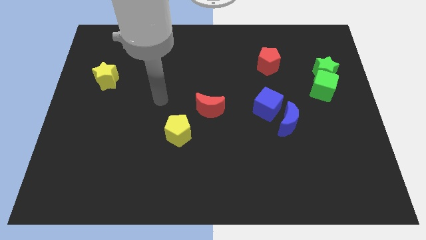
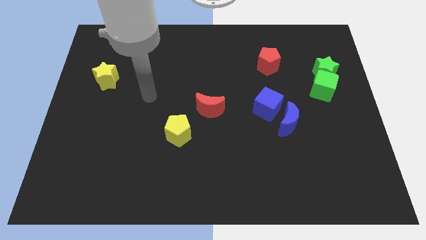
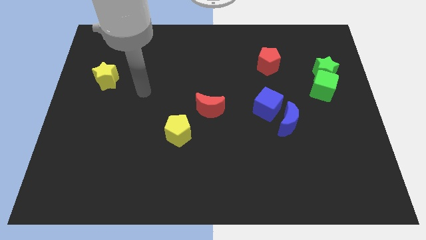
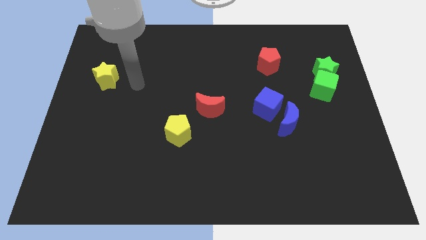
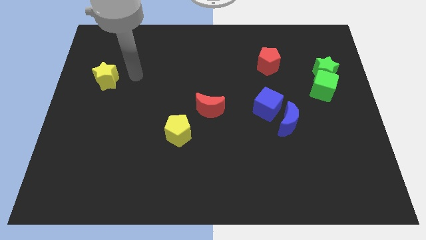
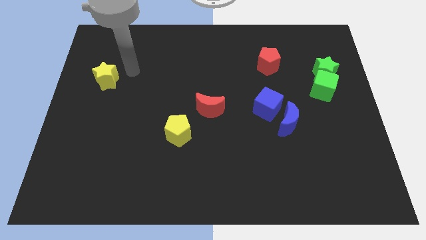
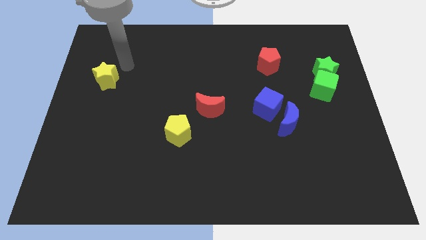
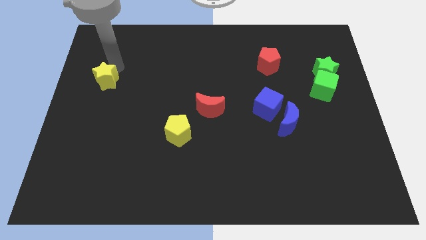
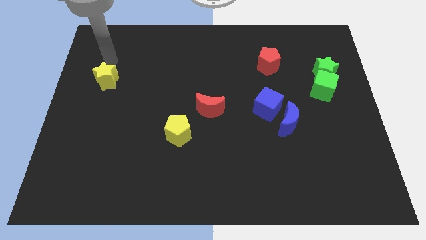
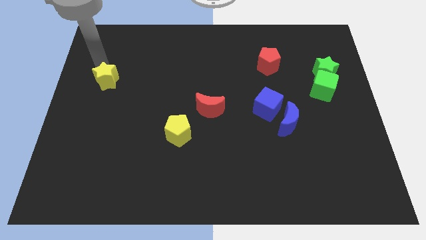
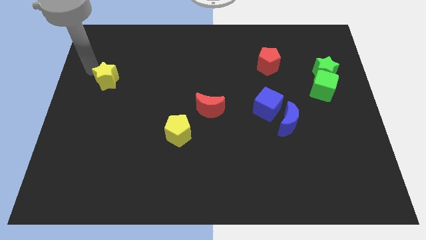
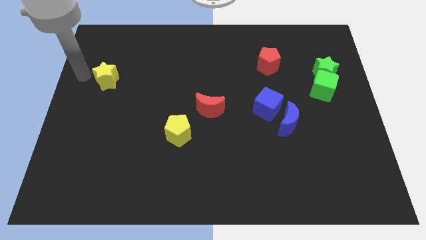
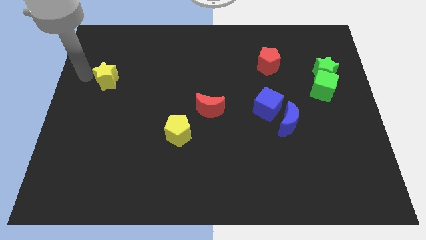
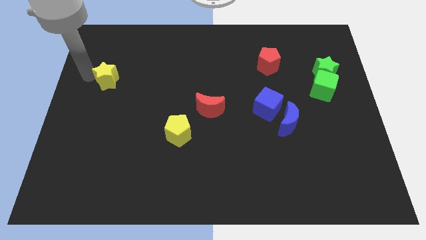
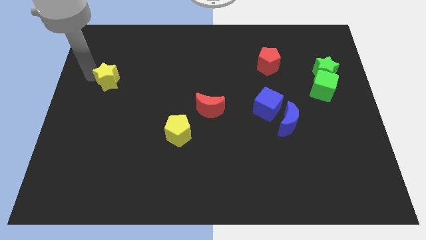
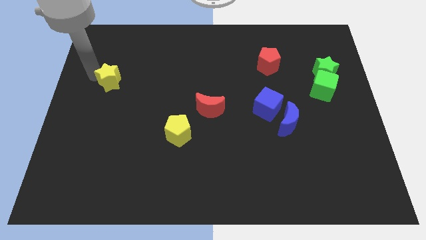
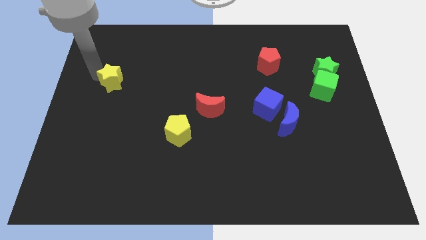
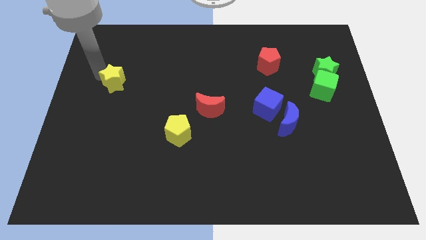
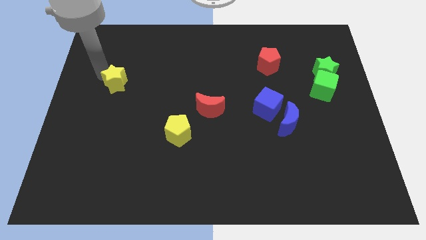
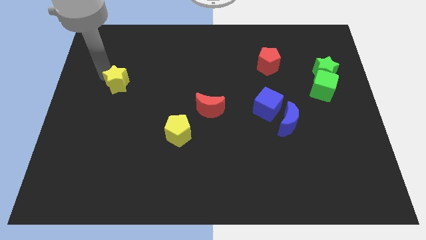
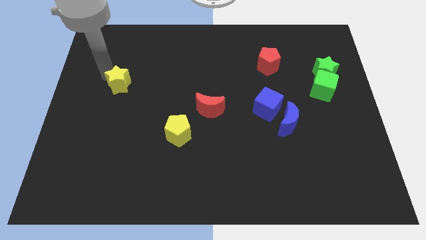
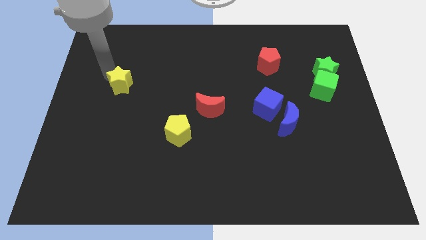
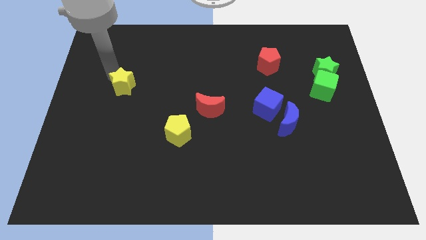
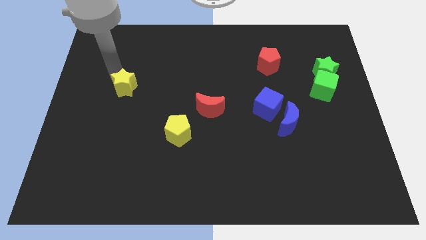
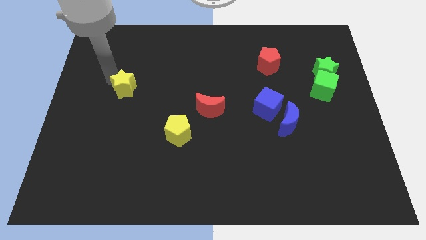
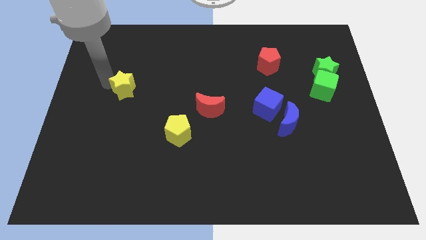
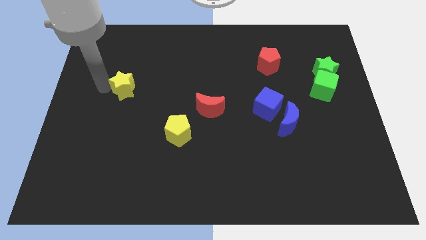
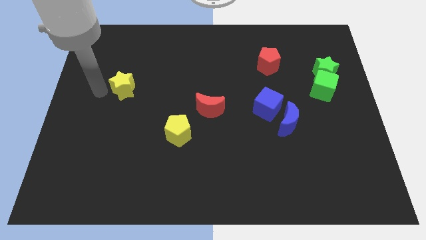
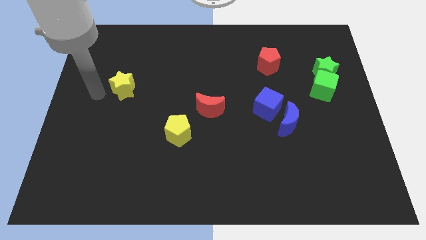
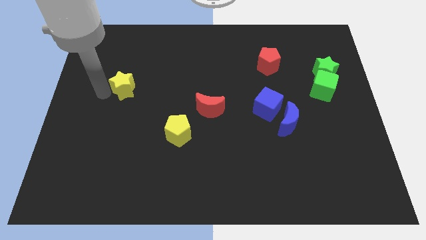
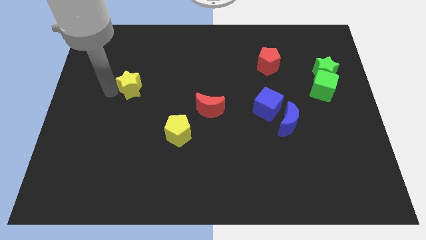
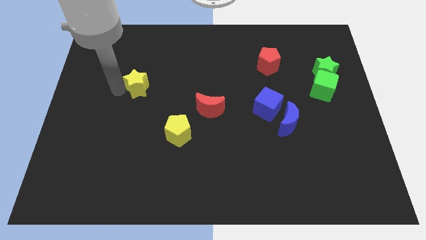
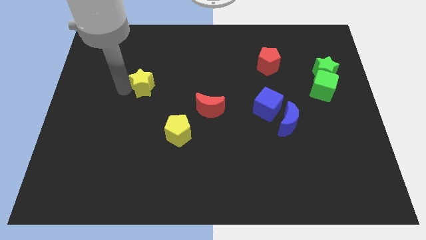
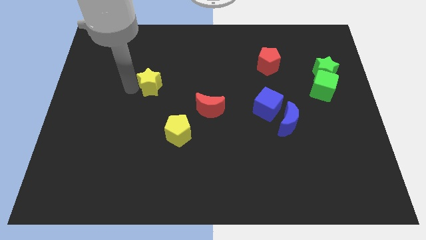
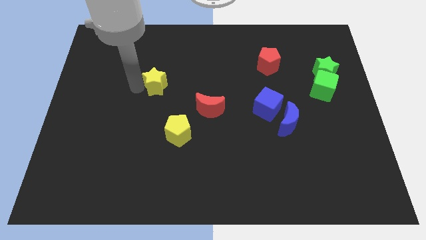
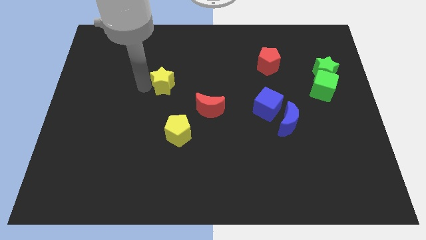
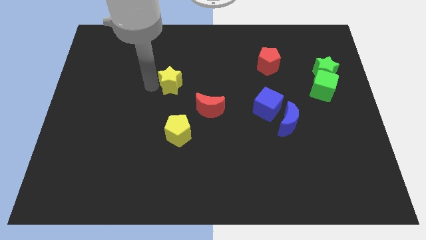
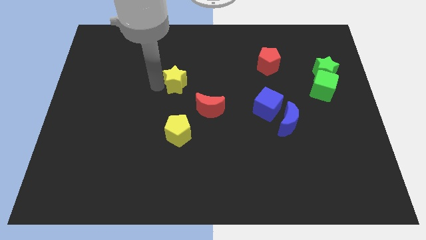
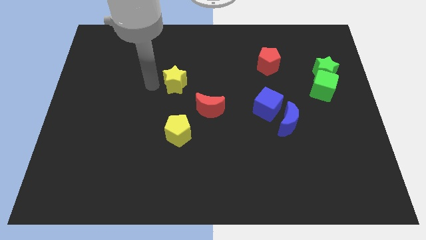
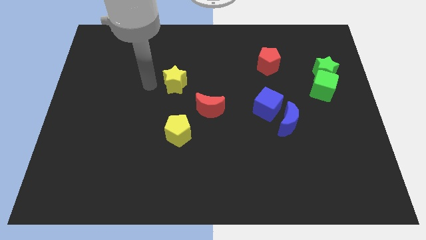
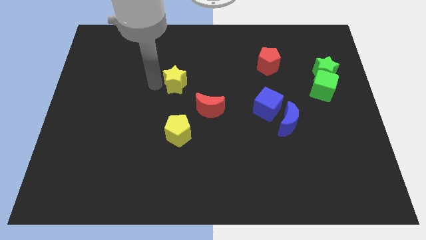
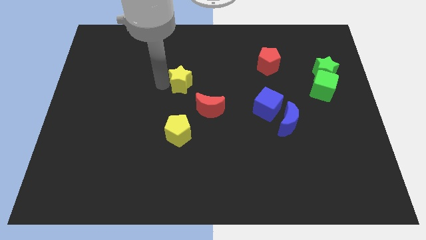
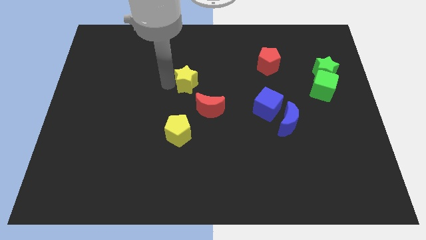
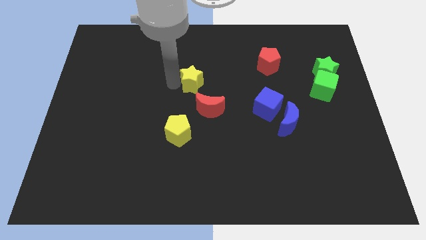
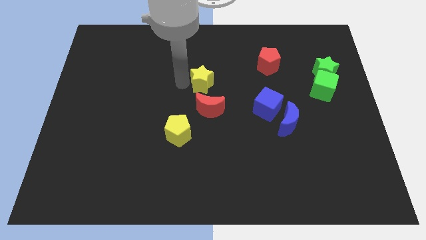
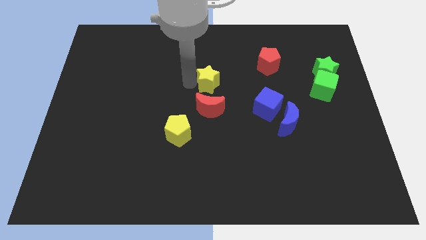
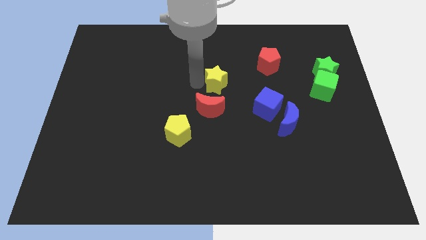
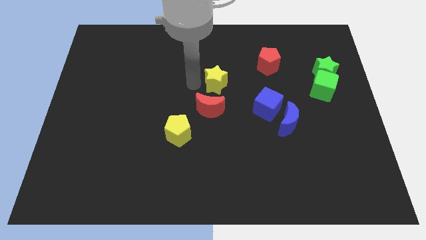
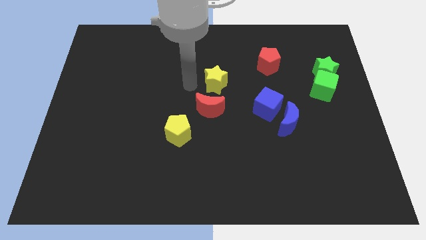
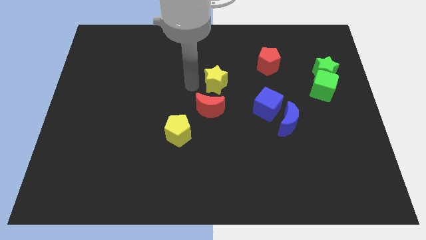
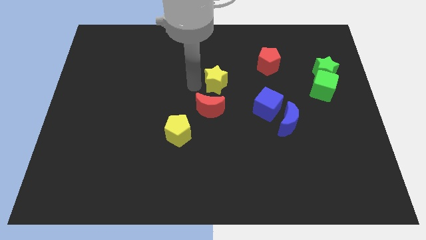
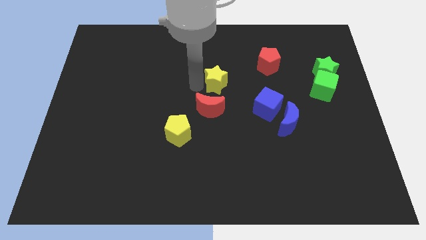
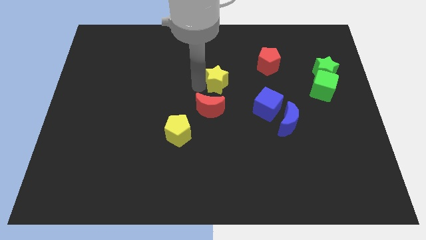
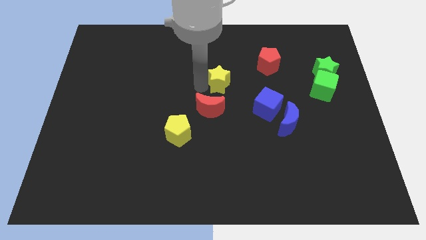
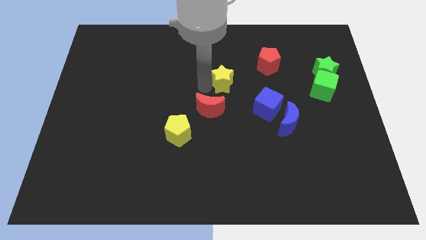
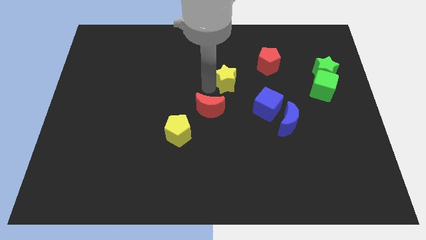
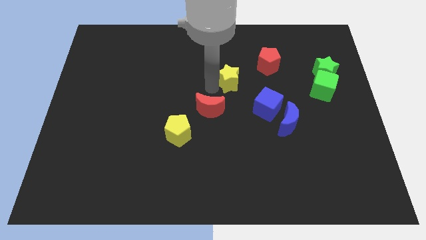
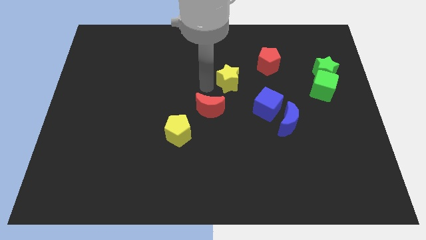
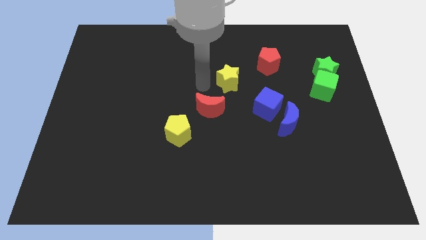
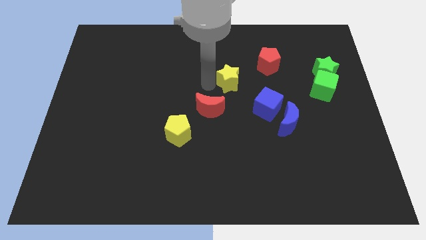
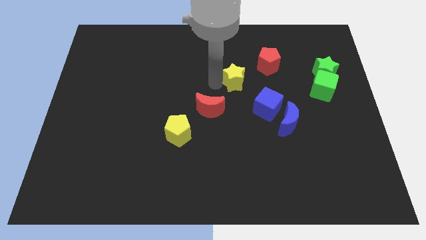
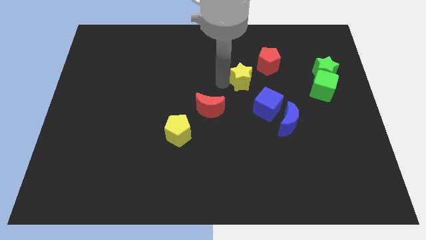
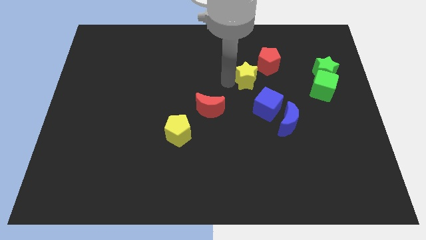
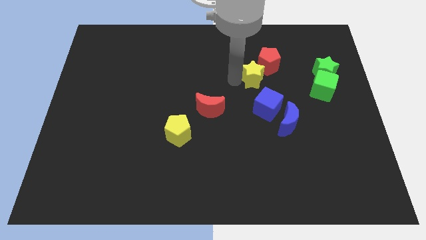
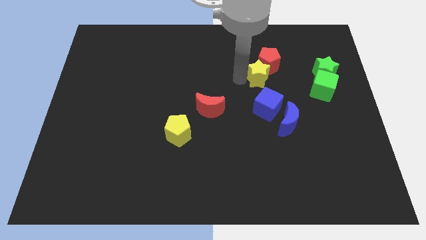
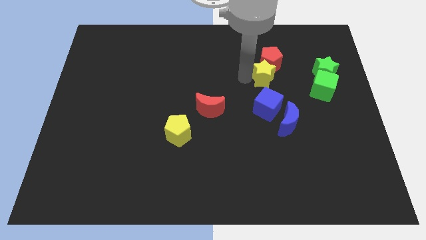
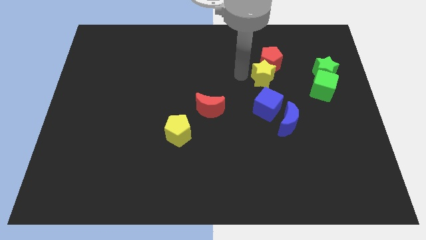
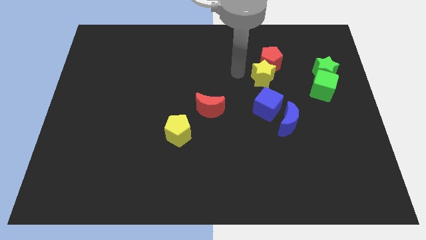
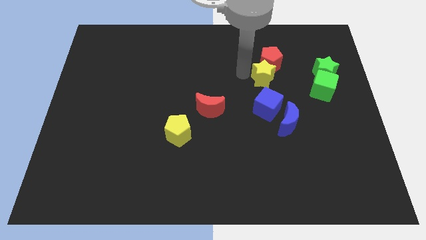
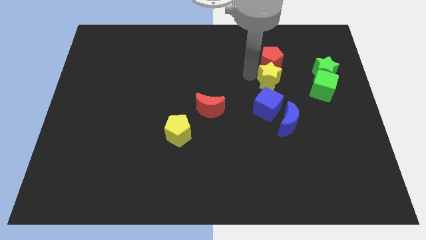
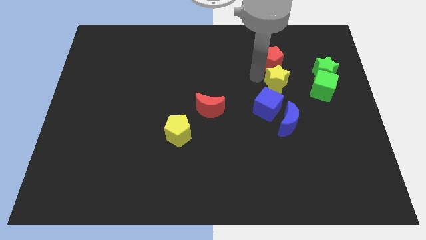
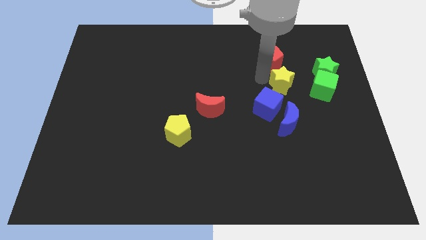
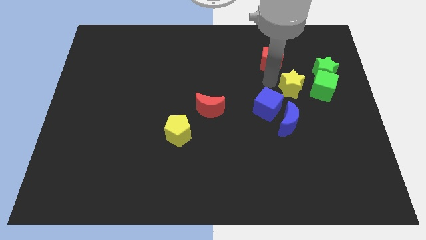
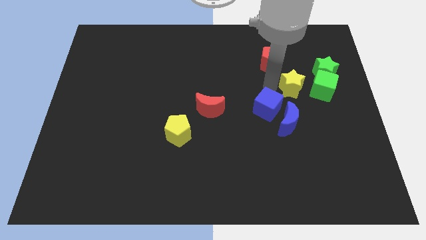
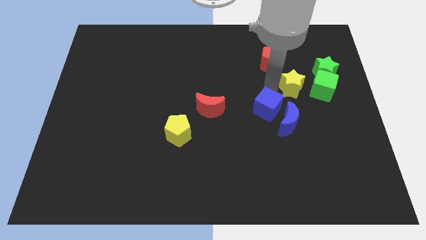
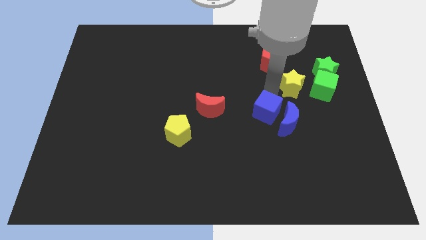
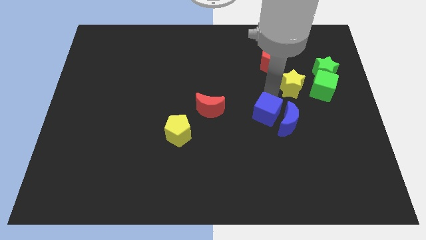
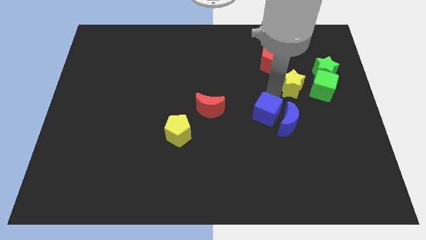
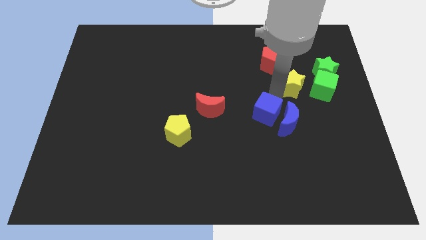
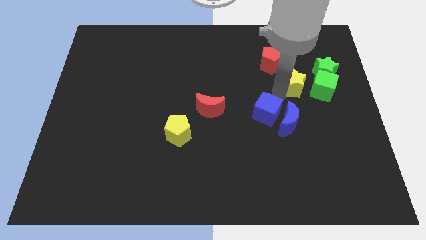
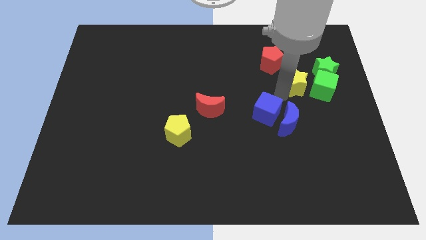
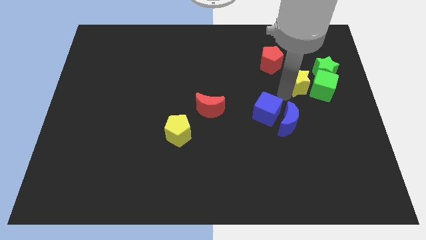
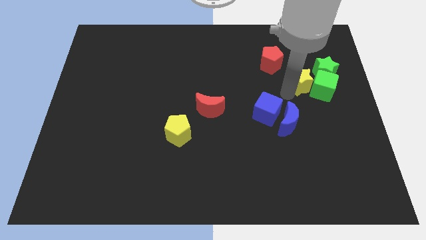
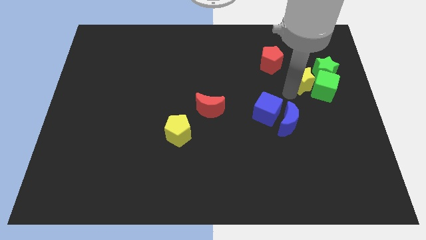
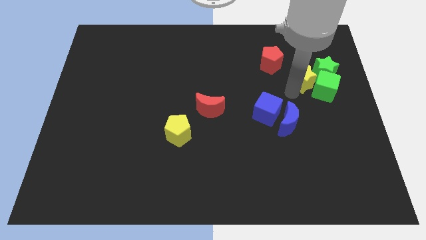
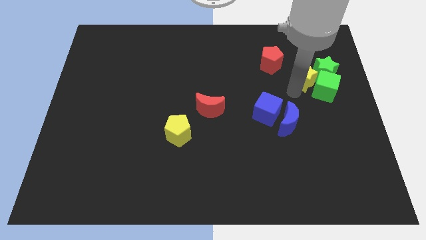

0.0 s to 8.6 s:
move the yellow star towards the green star
